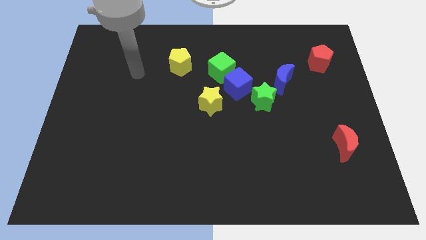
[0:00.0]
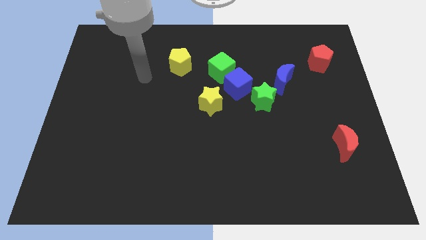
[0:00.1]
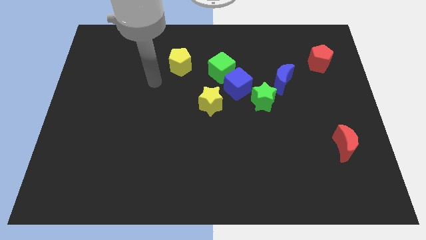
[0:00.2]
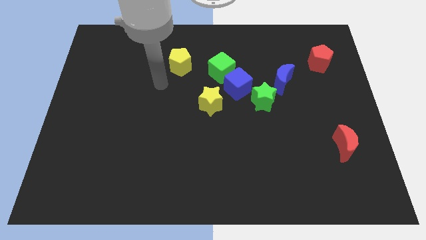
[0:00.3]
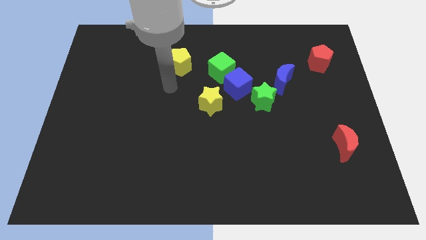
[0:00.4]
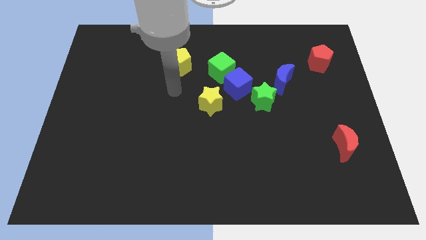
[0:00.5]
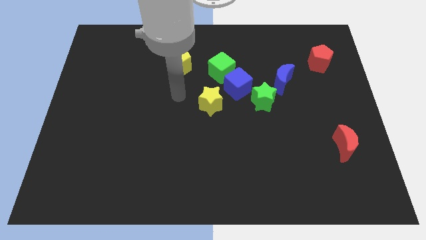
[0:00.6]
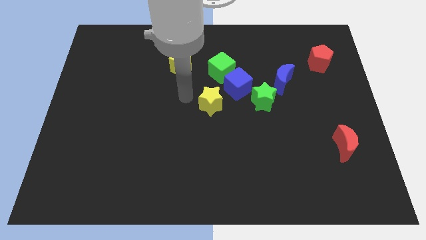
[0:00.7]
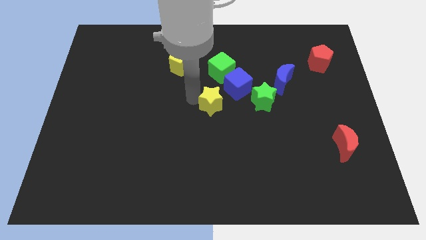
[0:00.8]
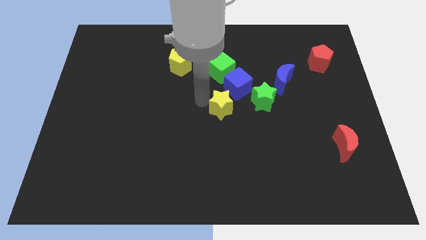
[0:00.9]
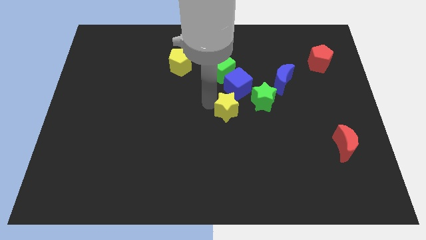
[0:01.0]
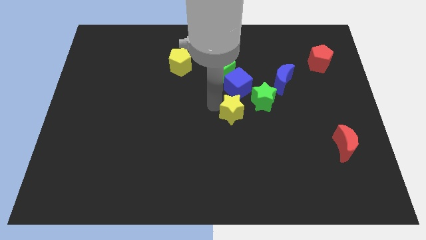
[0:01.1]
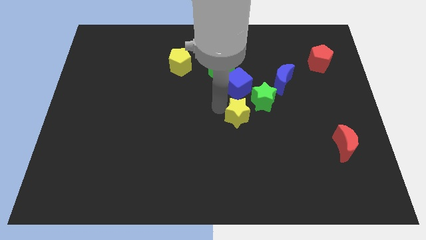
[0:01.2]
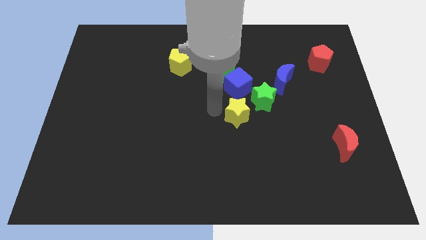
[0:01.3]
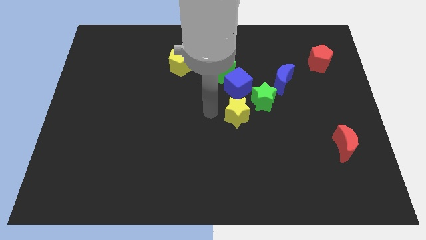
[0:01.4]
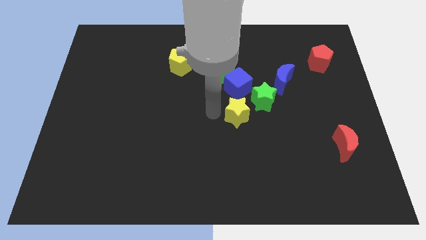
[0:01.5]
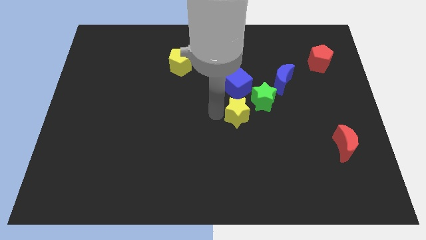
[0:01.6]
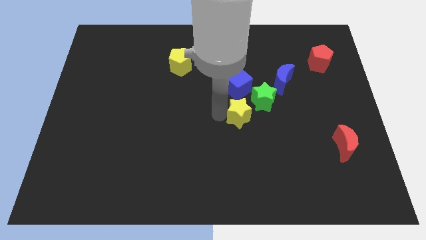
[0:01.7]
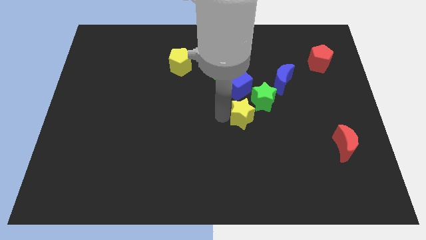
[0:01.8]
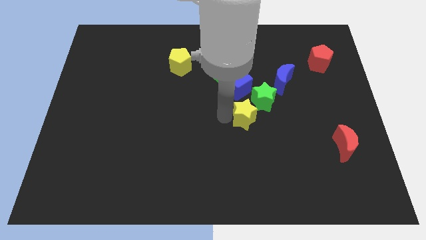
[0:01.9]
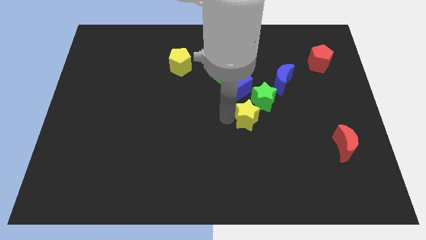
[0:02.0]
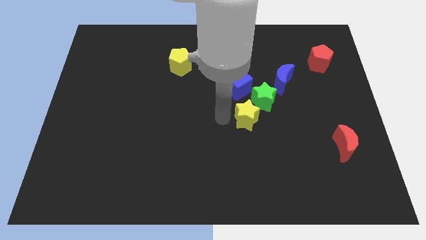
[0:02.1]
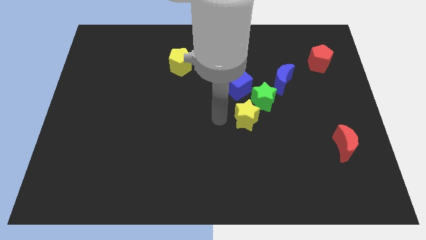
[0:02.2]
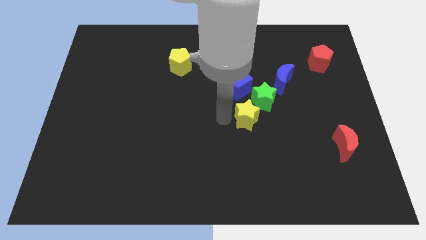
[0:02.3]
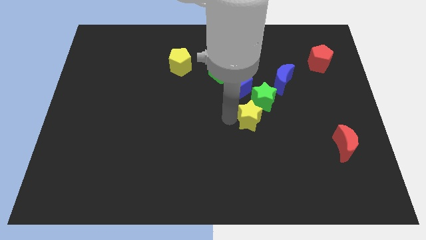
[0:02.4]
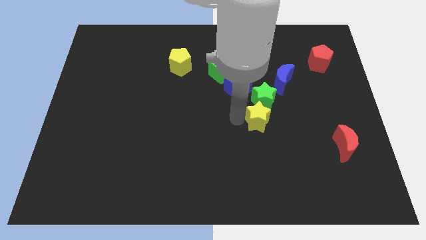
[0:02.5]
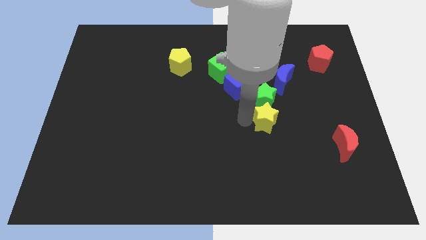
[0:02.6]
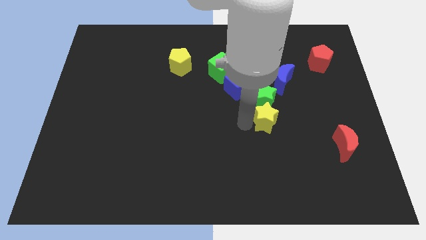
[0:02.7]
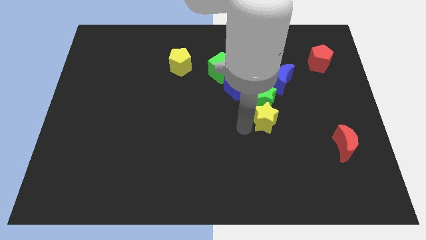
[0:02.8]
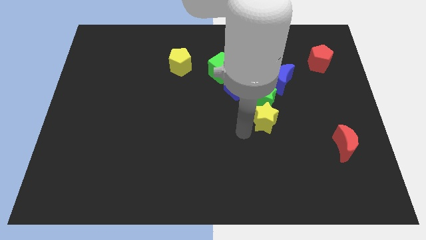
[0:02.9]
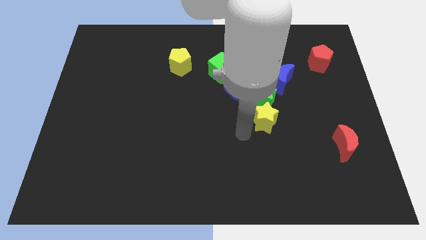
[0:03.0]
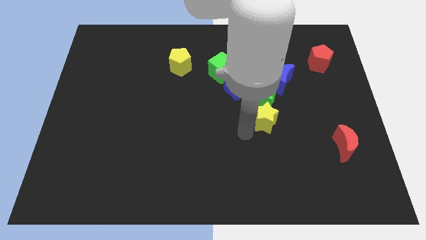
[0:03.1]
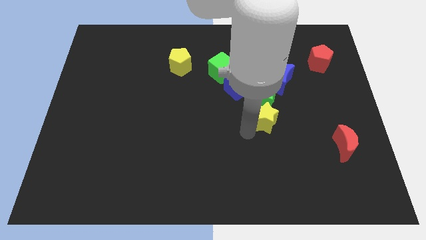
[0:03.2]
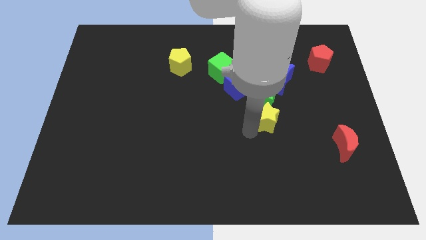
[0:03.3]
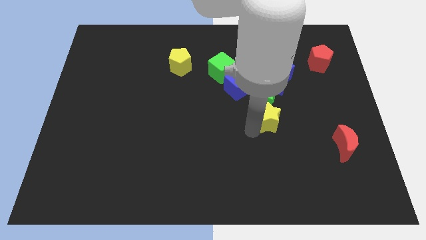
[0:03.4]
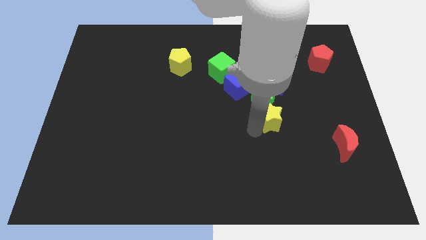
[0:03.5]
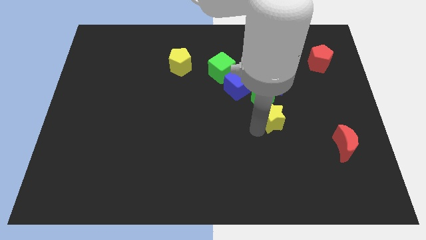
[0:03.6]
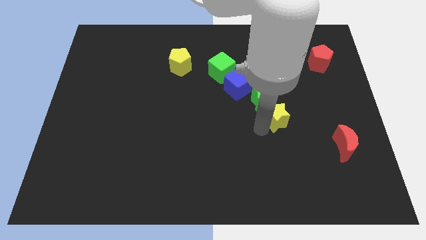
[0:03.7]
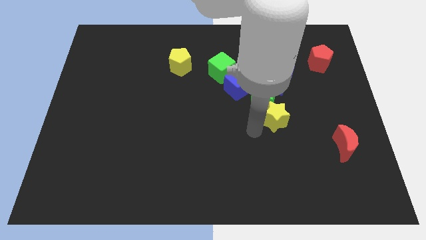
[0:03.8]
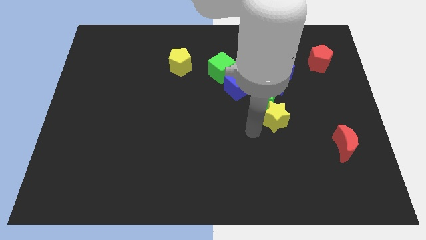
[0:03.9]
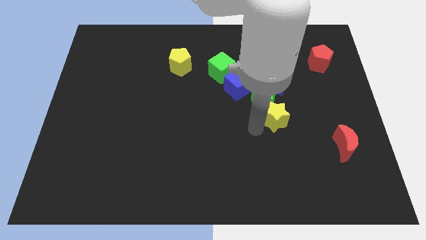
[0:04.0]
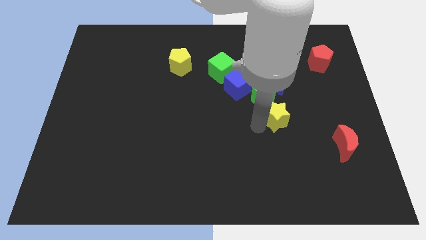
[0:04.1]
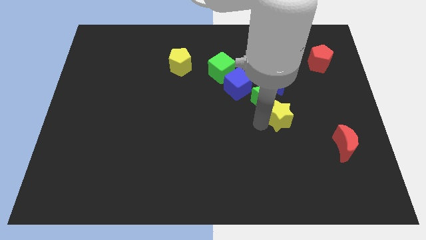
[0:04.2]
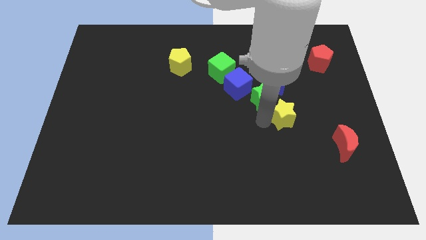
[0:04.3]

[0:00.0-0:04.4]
put the yellow star just right of the green star

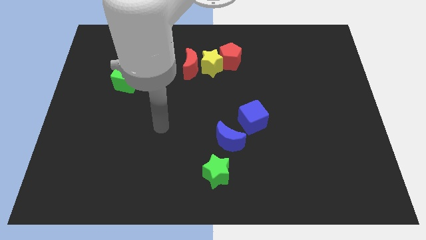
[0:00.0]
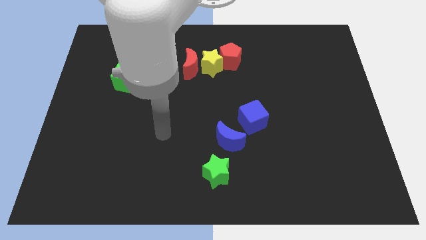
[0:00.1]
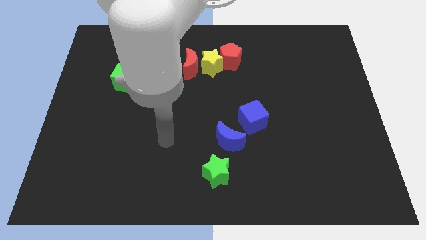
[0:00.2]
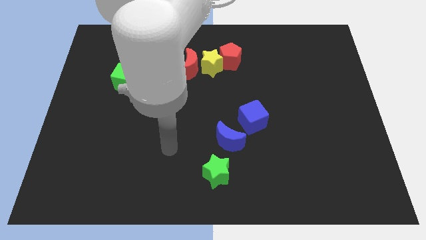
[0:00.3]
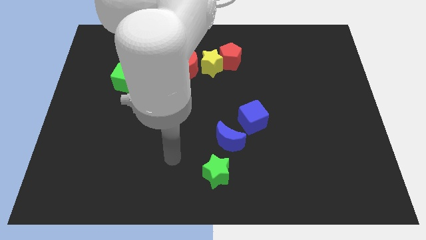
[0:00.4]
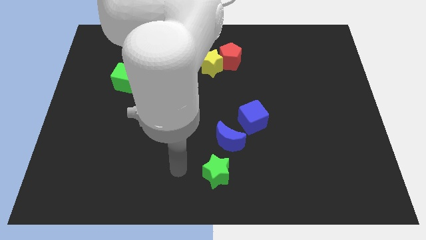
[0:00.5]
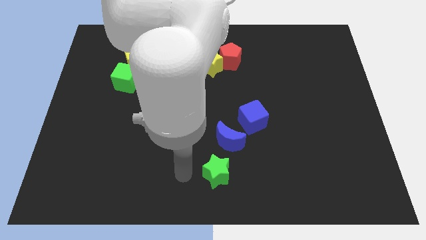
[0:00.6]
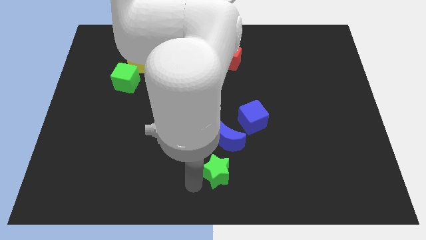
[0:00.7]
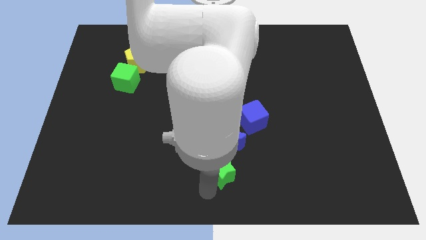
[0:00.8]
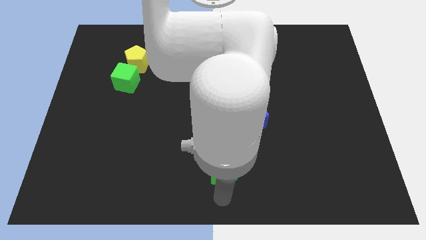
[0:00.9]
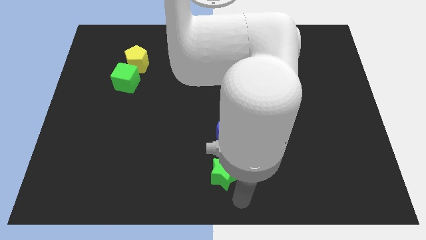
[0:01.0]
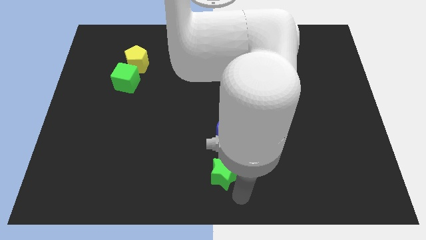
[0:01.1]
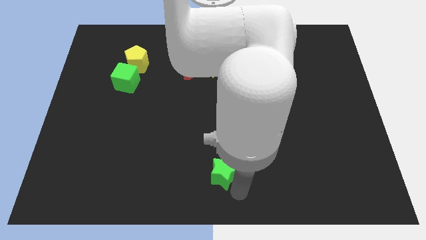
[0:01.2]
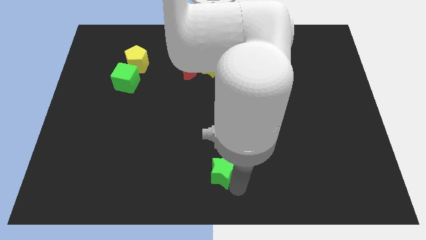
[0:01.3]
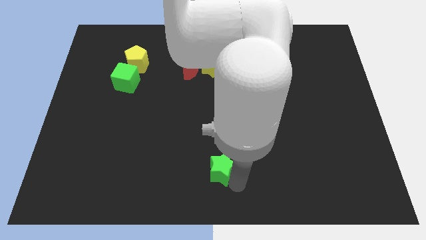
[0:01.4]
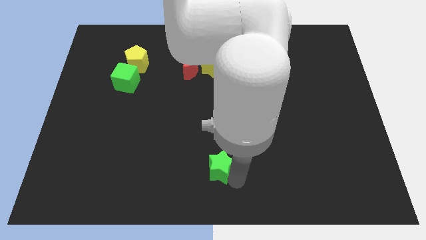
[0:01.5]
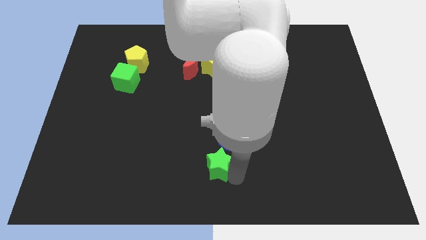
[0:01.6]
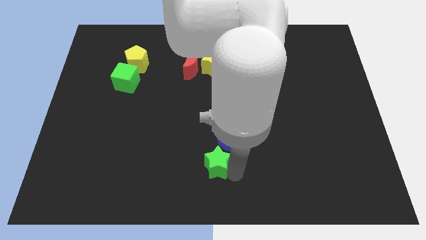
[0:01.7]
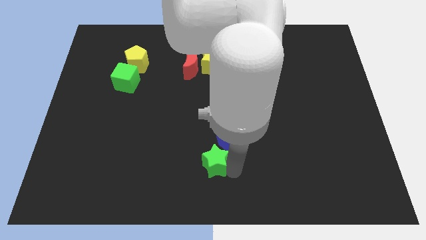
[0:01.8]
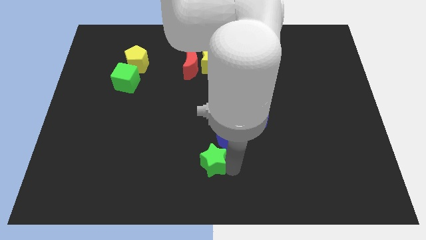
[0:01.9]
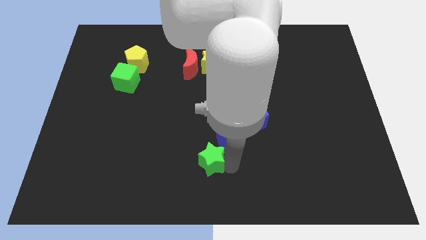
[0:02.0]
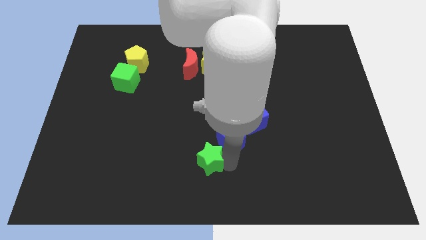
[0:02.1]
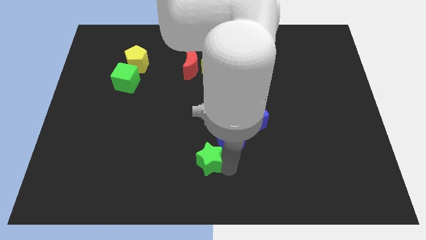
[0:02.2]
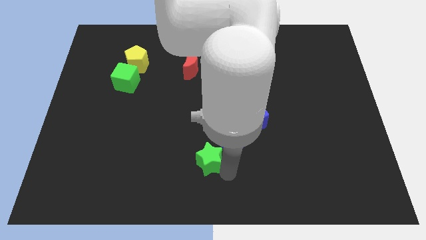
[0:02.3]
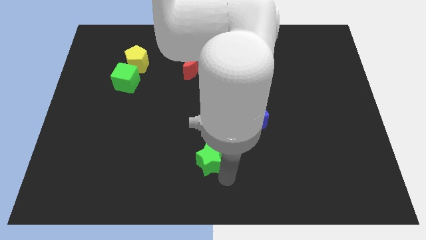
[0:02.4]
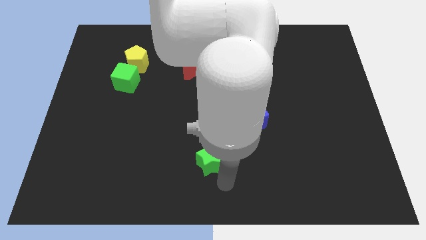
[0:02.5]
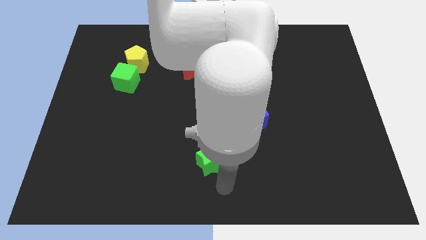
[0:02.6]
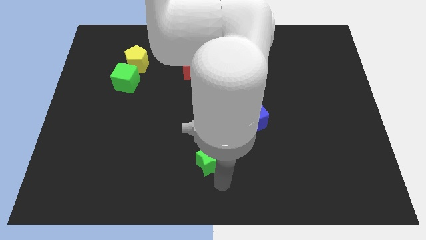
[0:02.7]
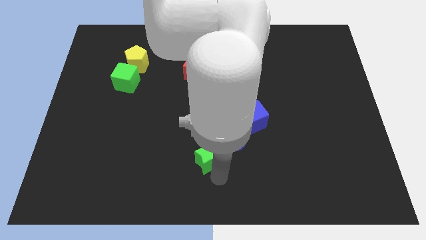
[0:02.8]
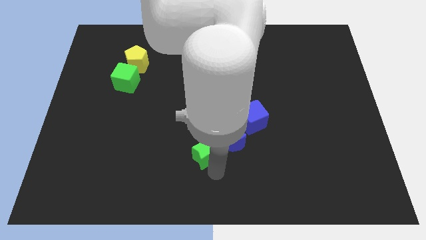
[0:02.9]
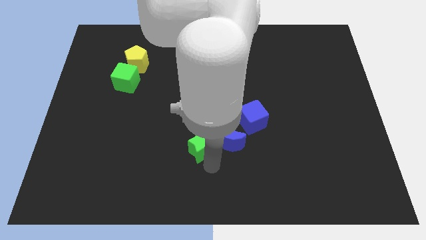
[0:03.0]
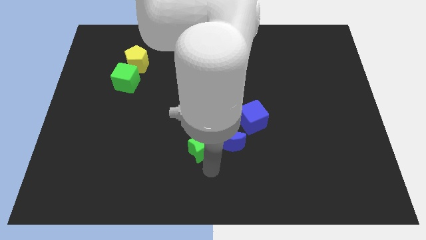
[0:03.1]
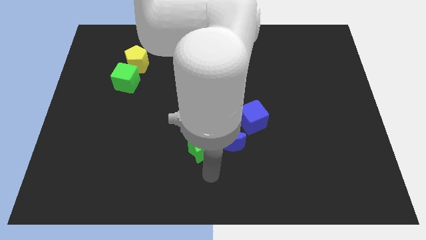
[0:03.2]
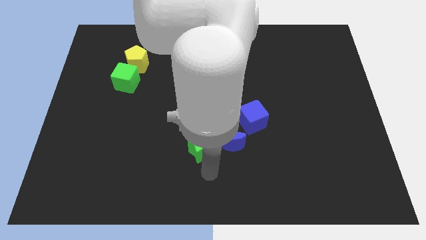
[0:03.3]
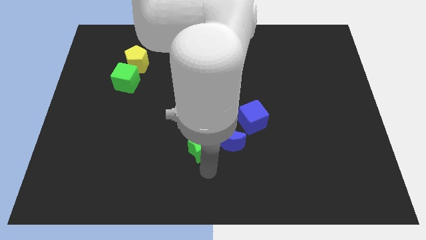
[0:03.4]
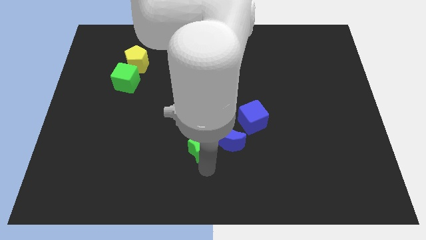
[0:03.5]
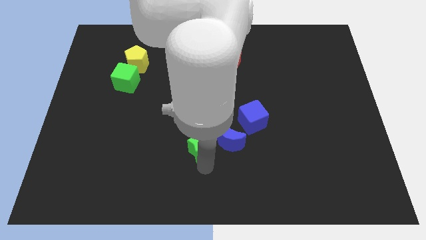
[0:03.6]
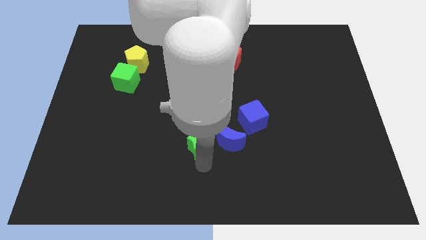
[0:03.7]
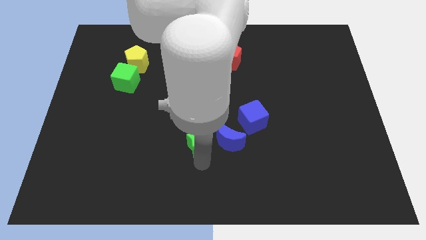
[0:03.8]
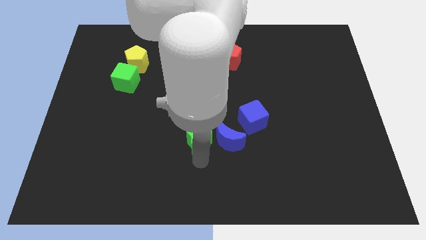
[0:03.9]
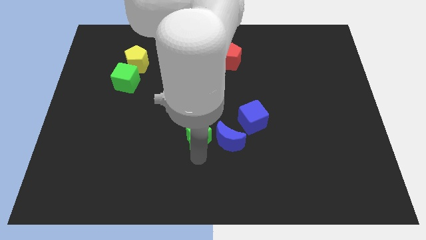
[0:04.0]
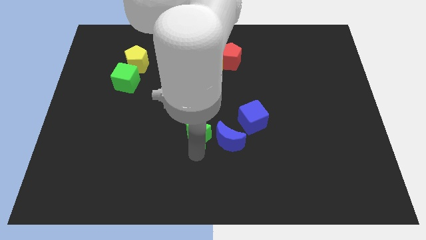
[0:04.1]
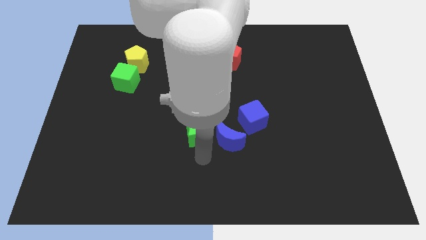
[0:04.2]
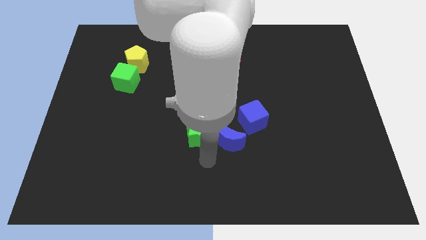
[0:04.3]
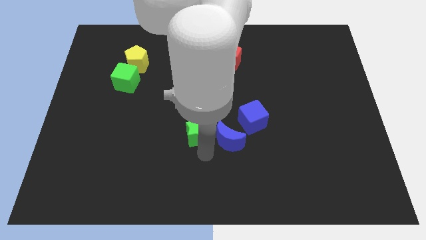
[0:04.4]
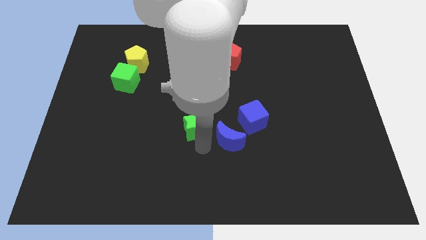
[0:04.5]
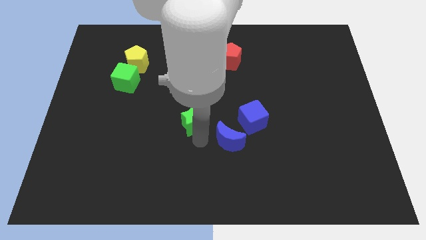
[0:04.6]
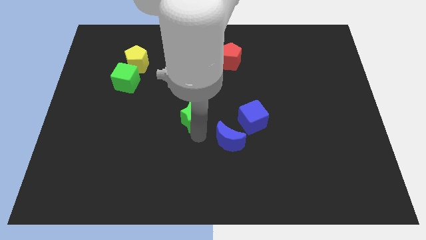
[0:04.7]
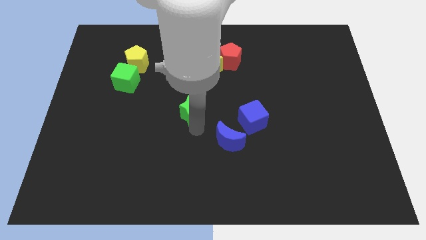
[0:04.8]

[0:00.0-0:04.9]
push the green star to the bottom of the red moon
